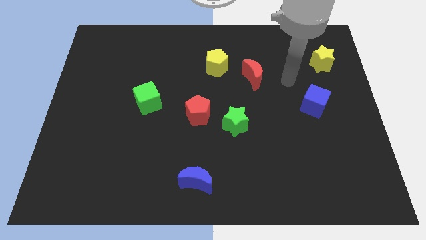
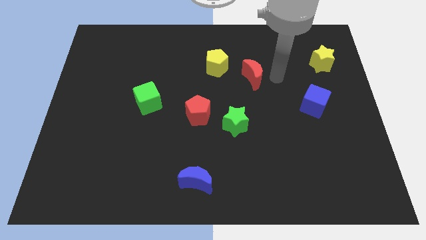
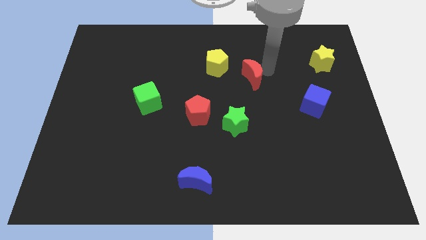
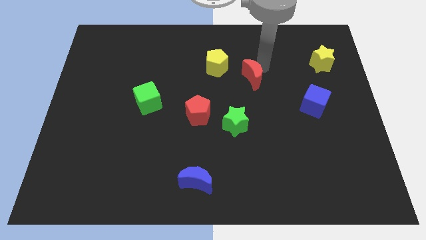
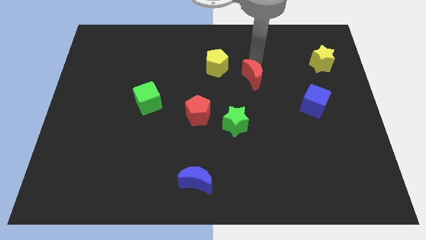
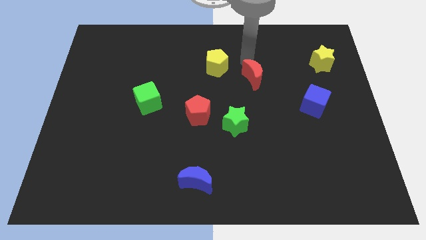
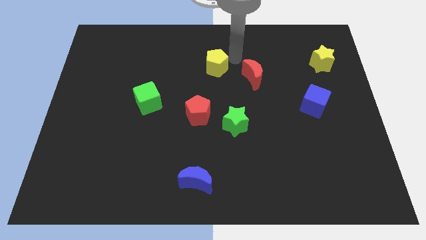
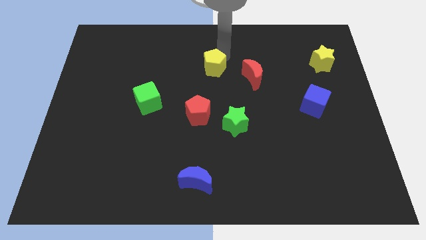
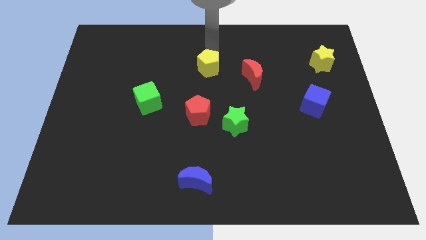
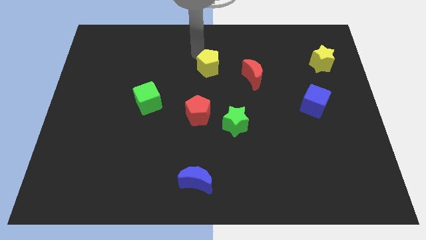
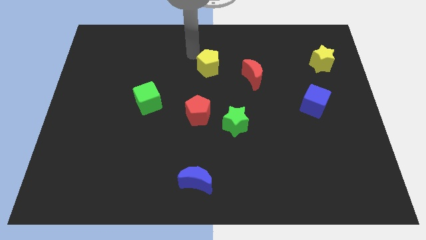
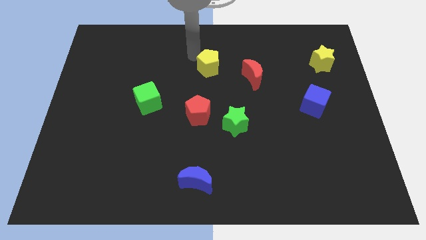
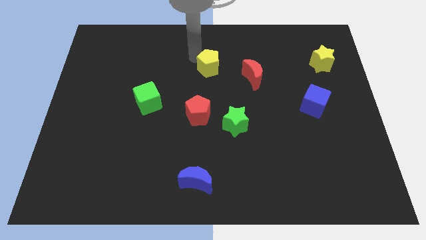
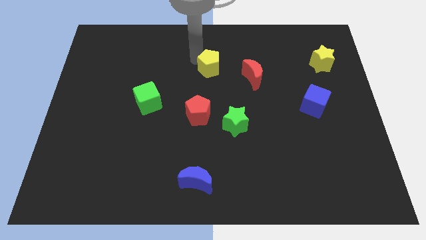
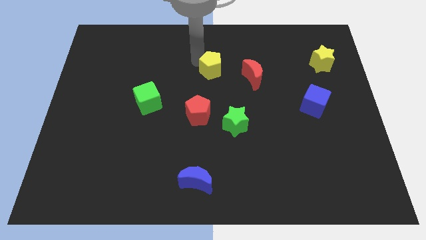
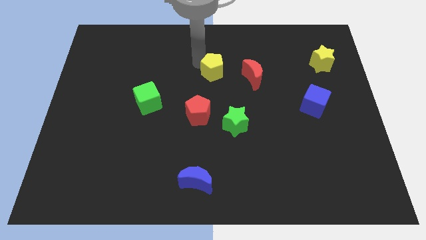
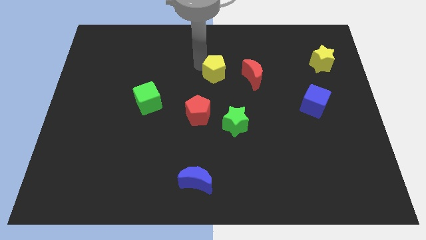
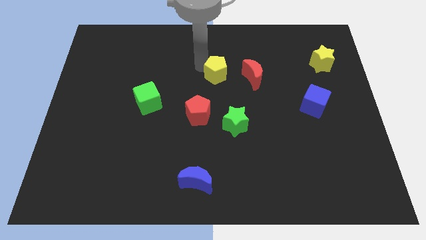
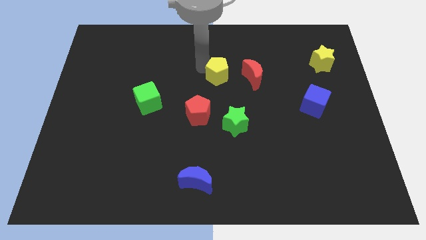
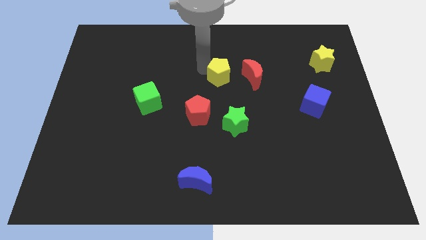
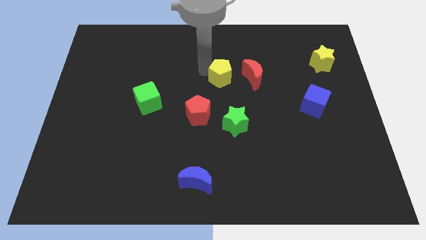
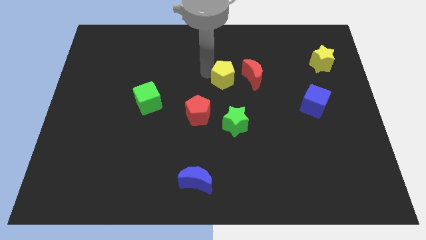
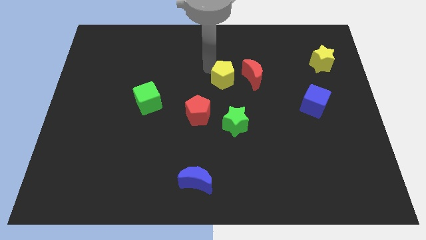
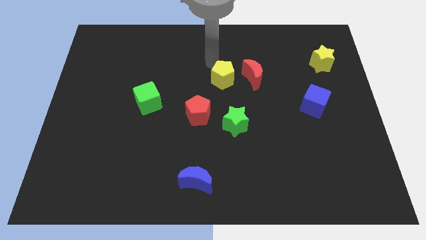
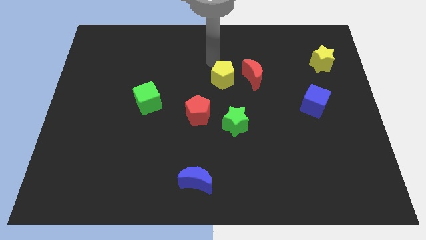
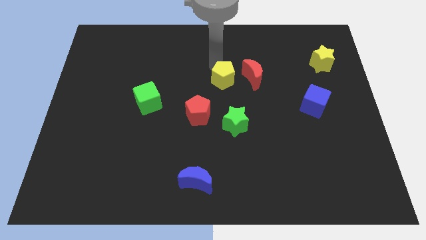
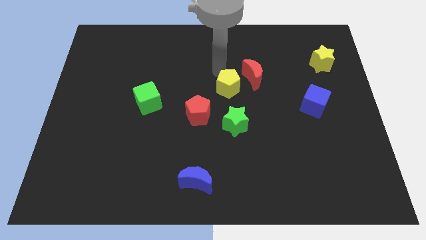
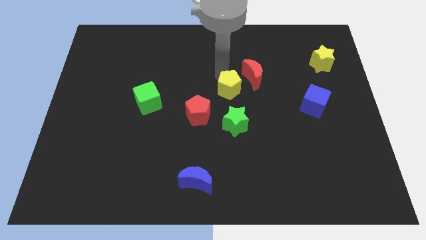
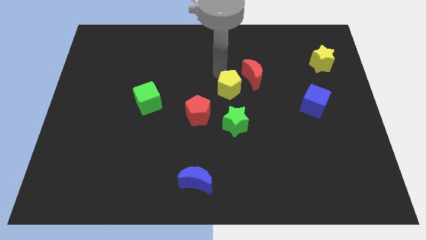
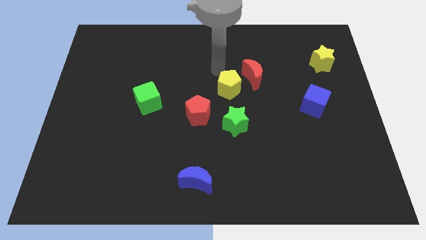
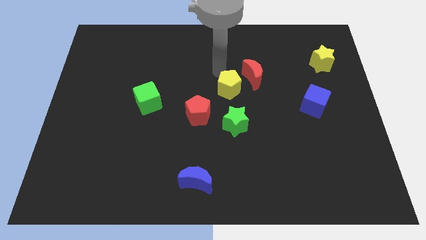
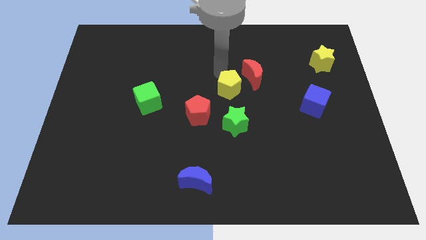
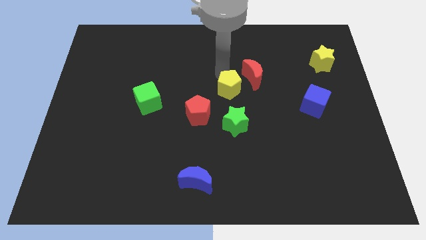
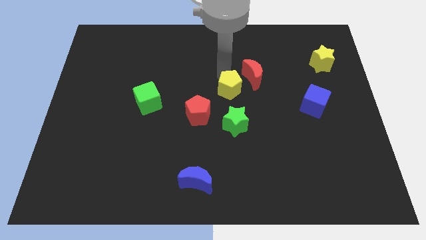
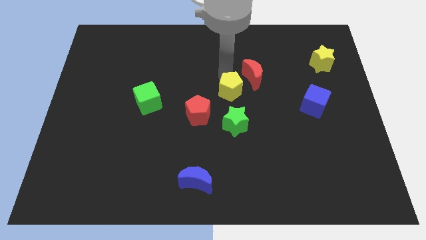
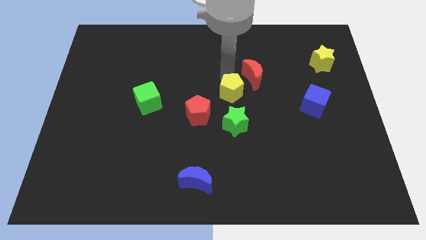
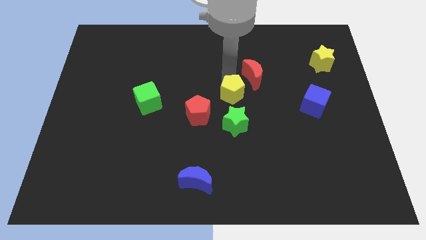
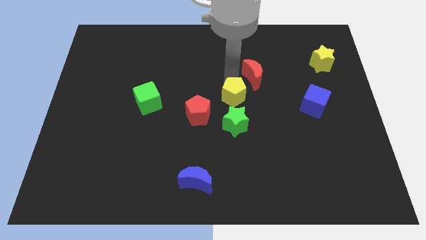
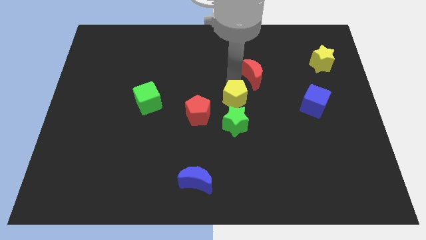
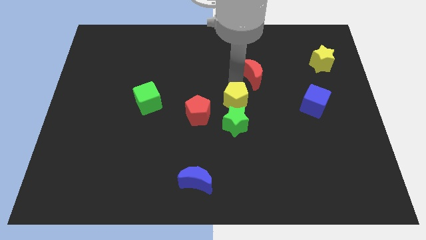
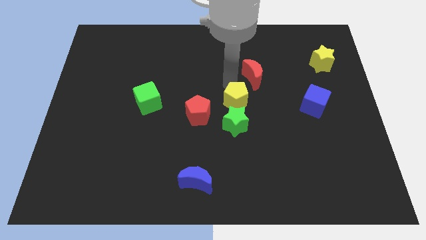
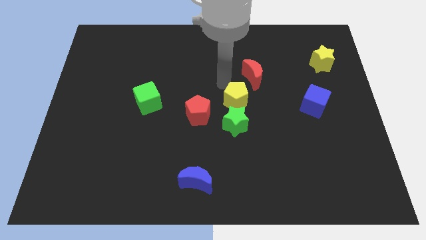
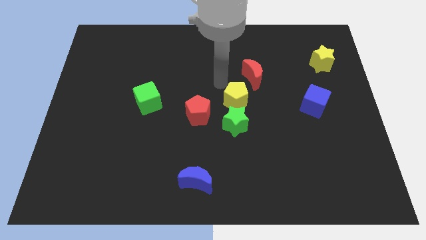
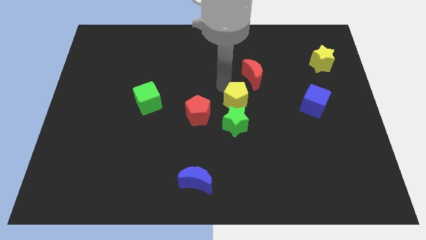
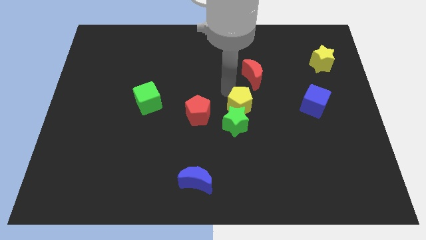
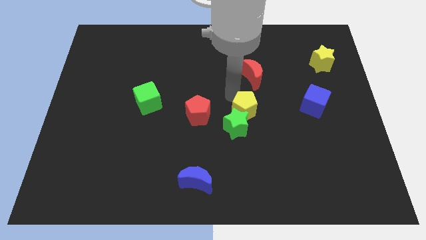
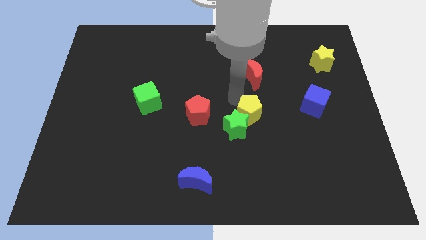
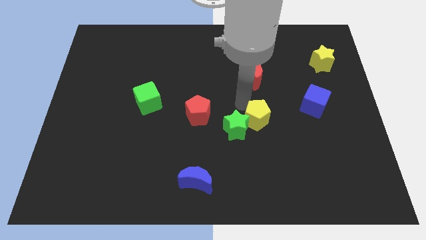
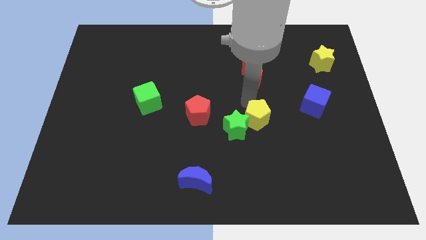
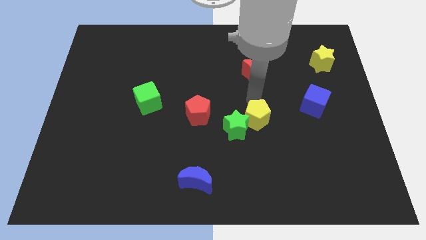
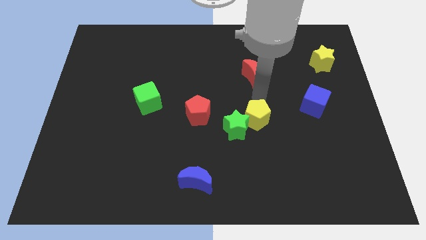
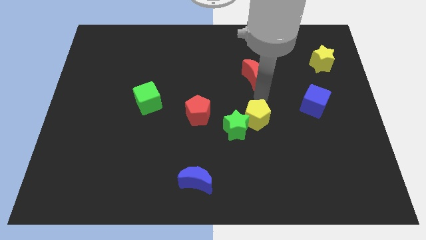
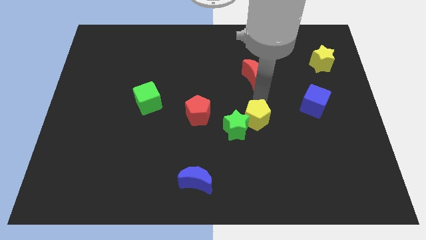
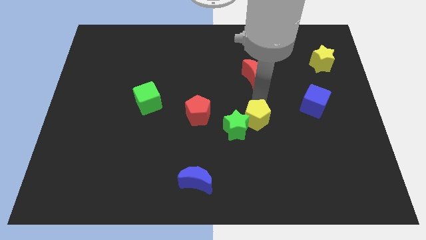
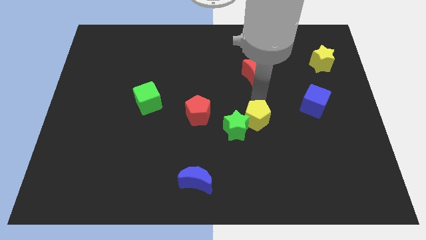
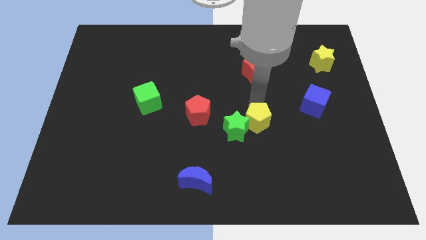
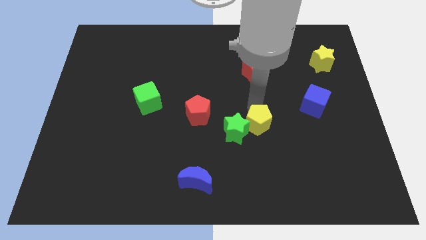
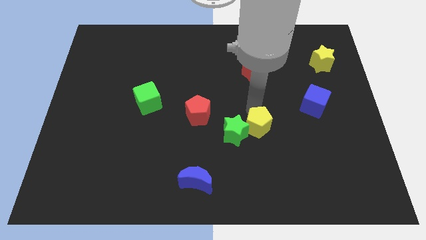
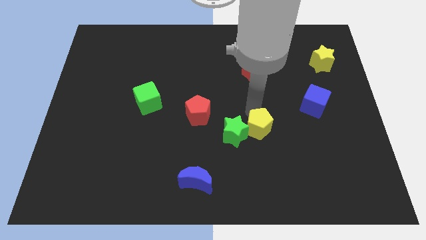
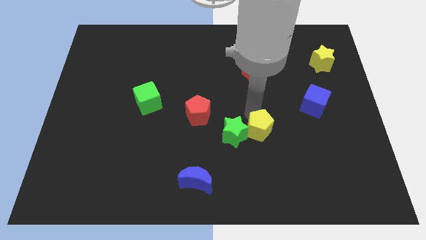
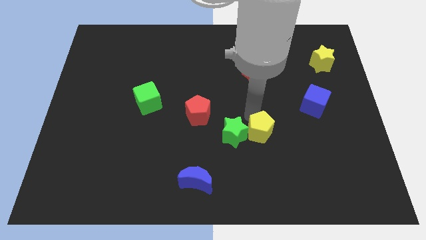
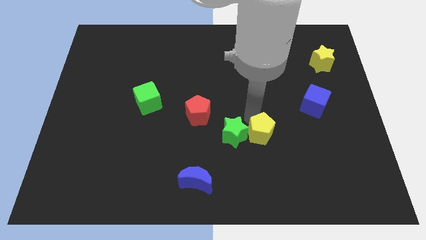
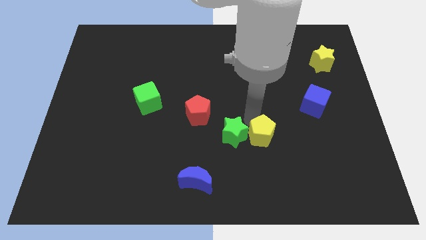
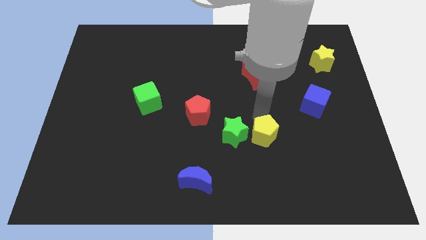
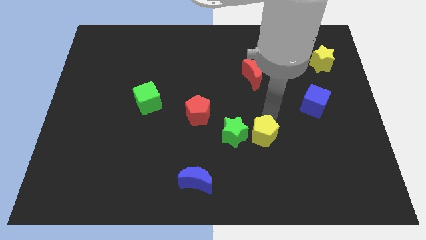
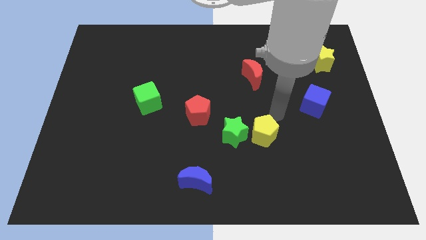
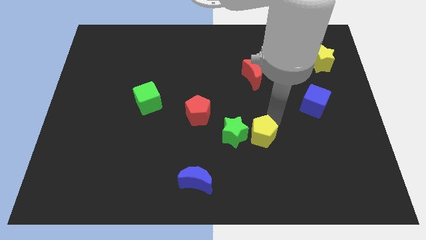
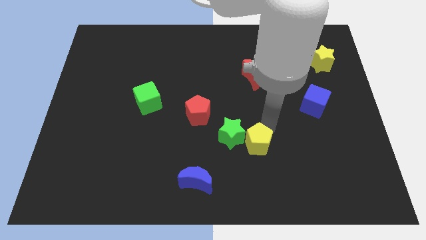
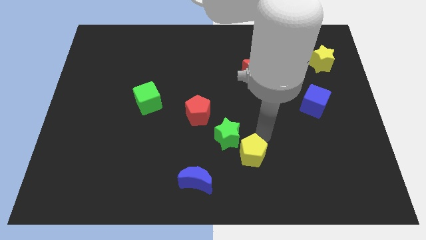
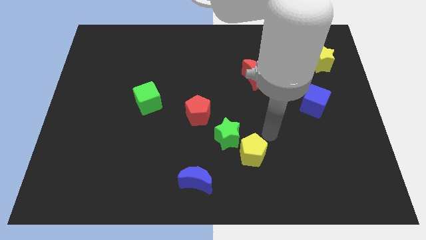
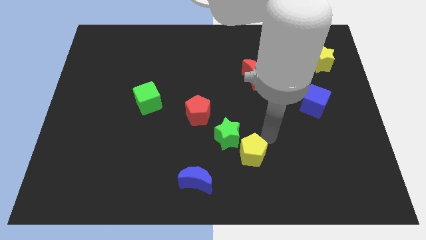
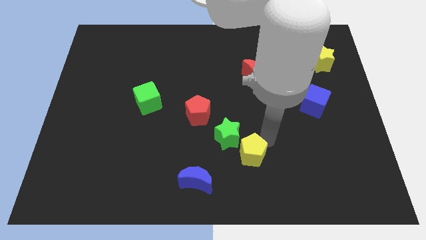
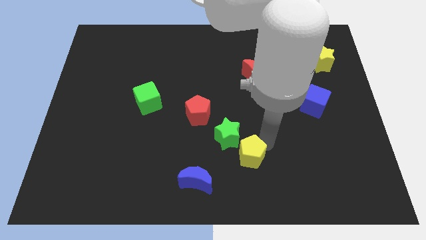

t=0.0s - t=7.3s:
slide the yellow pentagon to the bottom of the green star
